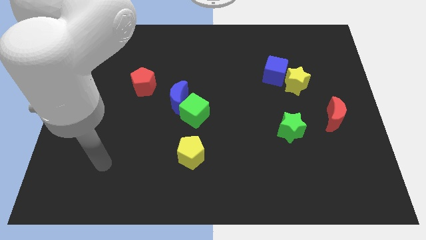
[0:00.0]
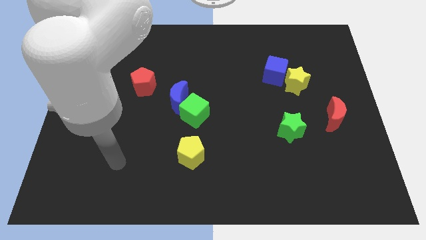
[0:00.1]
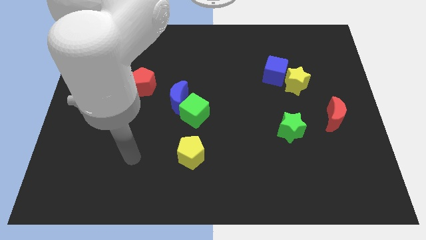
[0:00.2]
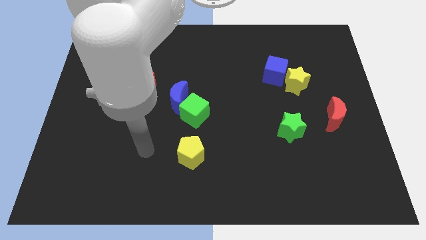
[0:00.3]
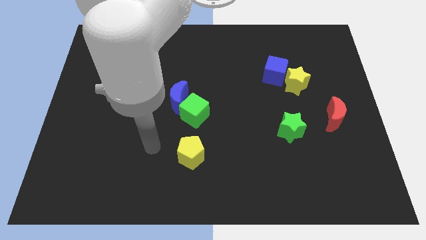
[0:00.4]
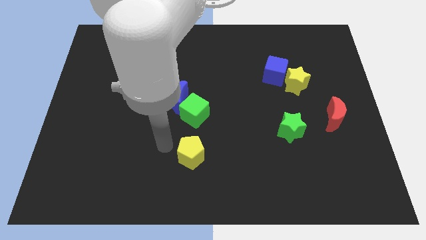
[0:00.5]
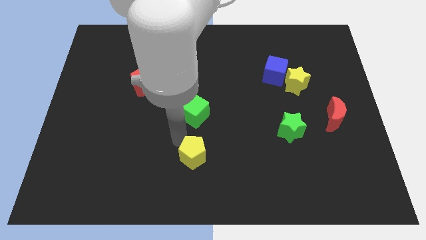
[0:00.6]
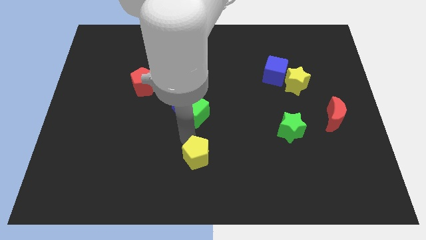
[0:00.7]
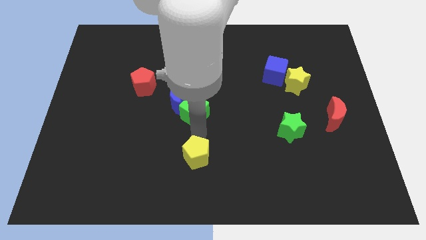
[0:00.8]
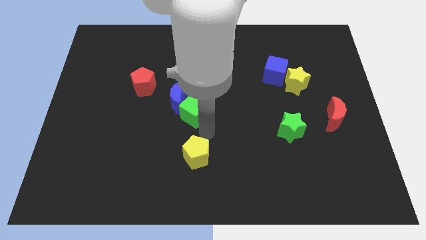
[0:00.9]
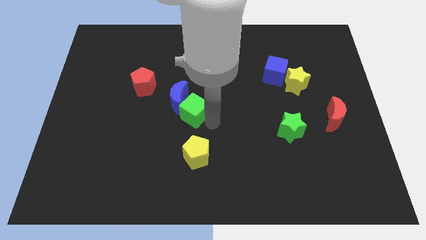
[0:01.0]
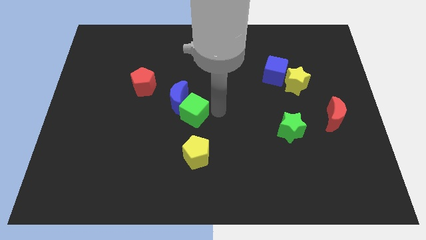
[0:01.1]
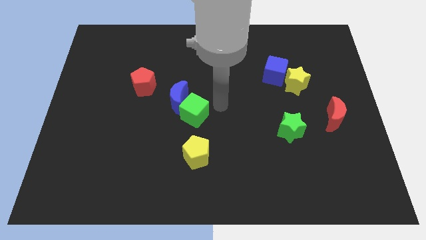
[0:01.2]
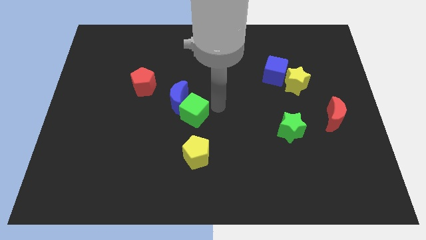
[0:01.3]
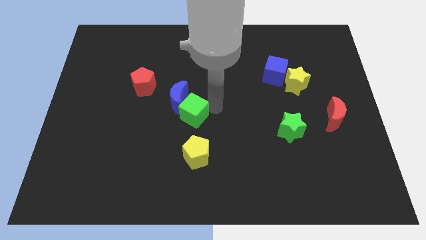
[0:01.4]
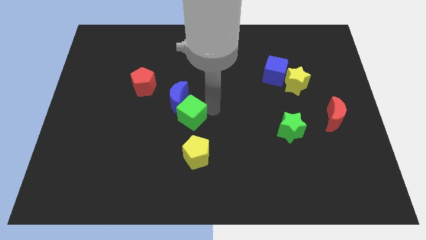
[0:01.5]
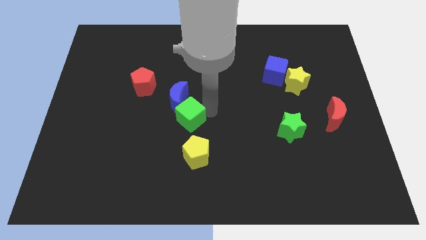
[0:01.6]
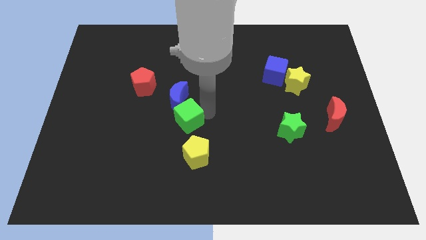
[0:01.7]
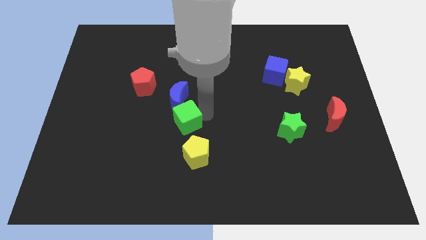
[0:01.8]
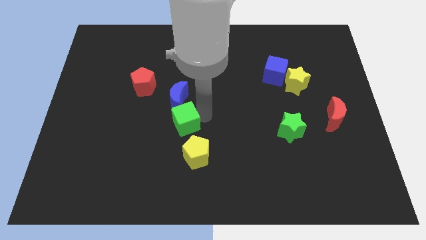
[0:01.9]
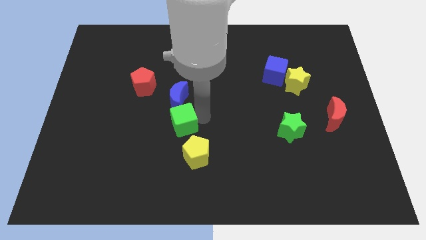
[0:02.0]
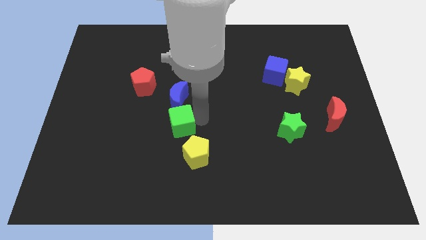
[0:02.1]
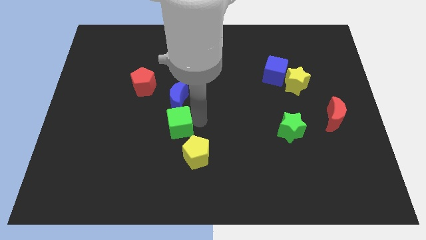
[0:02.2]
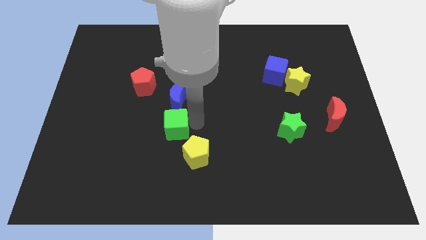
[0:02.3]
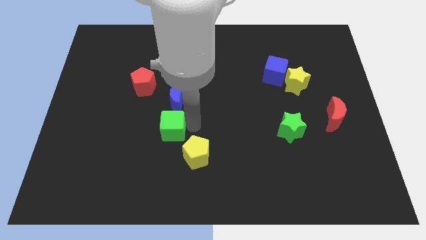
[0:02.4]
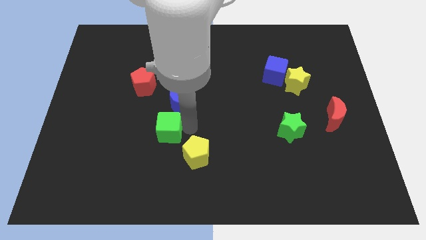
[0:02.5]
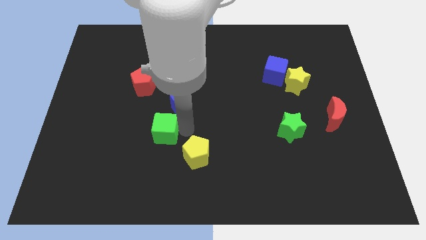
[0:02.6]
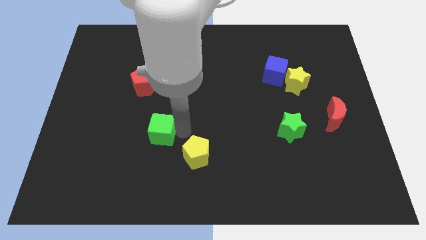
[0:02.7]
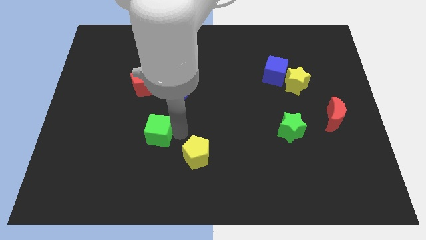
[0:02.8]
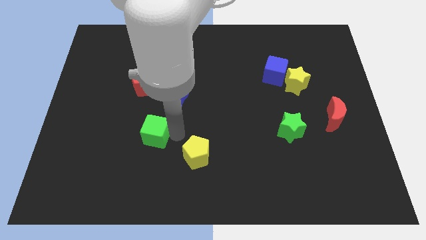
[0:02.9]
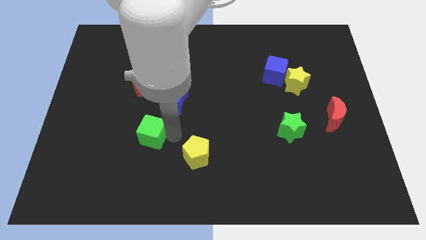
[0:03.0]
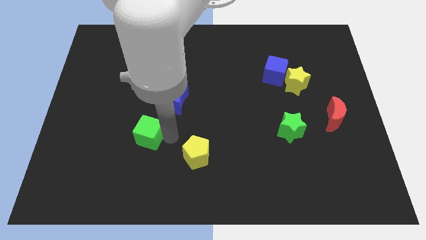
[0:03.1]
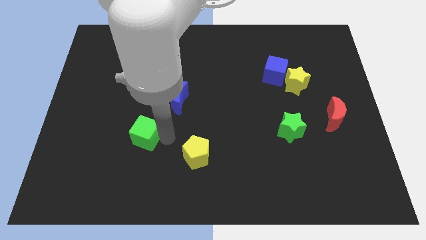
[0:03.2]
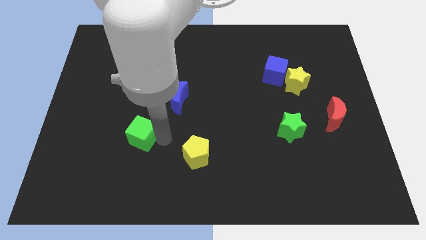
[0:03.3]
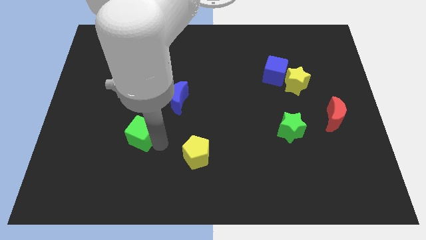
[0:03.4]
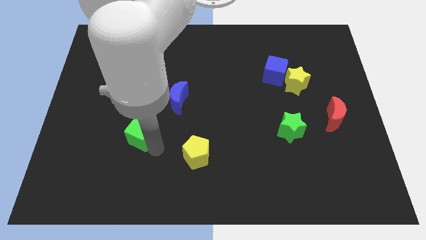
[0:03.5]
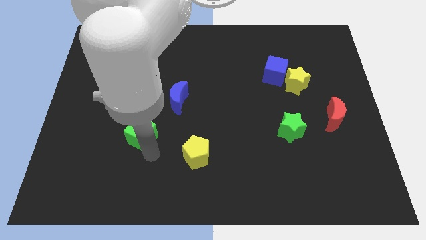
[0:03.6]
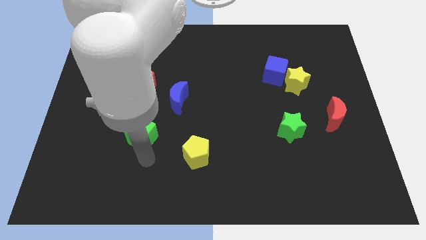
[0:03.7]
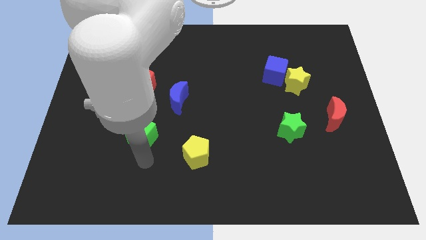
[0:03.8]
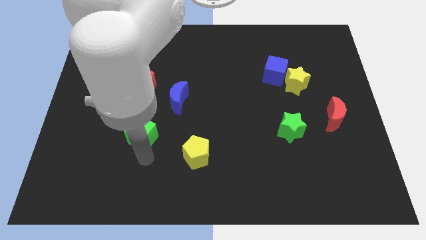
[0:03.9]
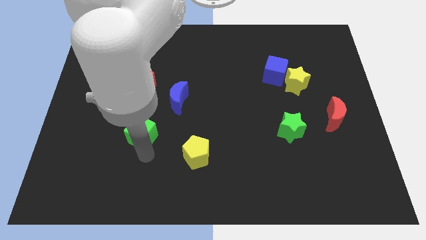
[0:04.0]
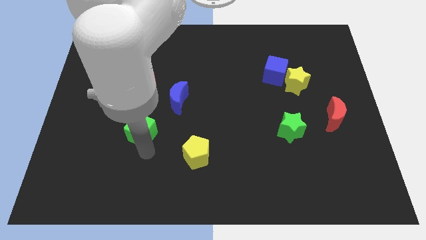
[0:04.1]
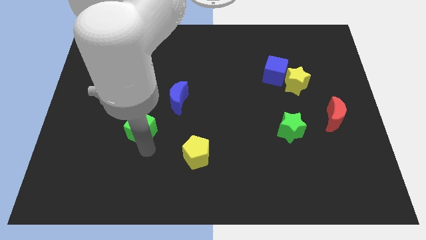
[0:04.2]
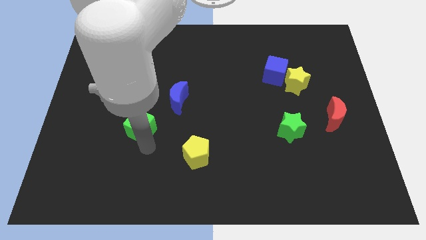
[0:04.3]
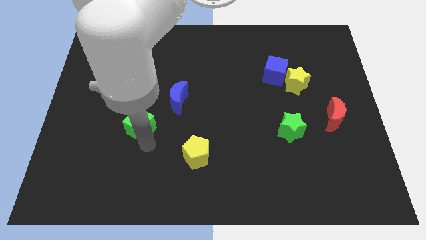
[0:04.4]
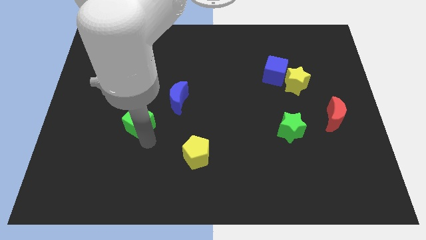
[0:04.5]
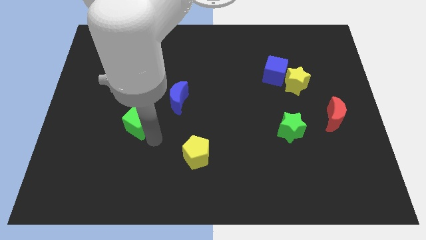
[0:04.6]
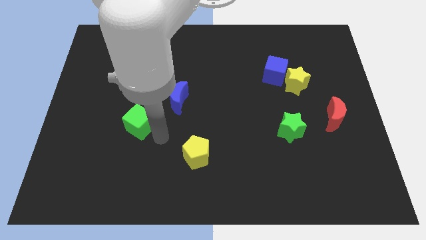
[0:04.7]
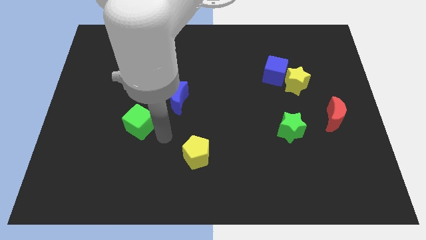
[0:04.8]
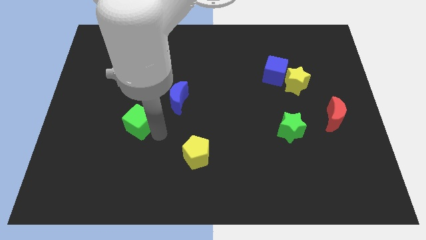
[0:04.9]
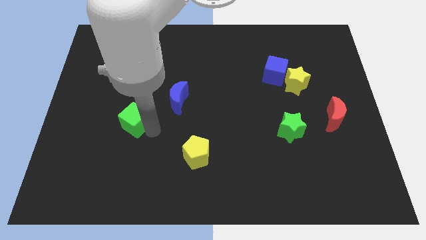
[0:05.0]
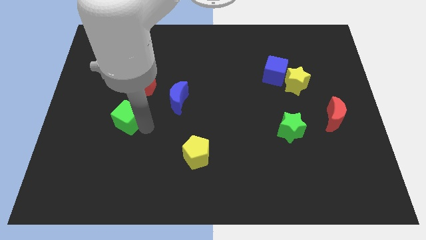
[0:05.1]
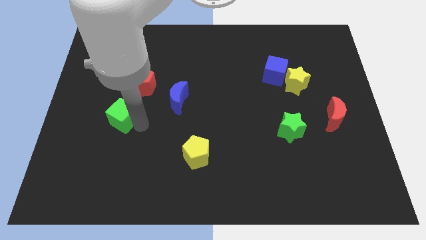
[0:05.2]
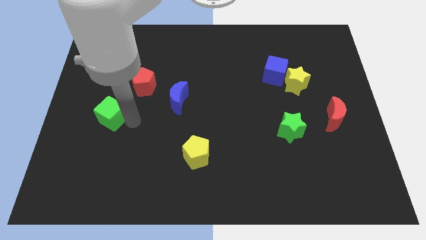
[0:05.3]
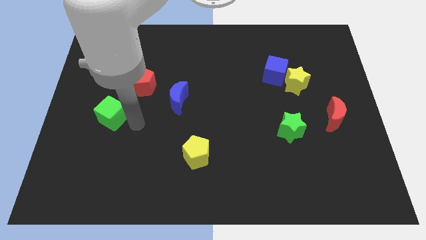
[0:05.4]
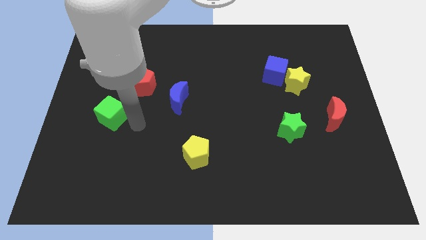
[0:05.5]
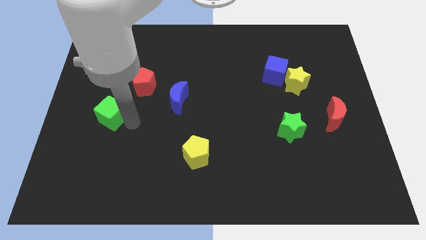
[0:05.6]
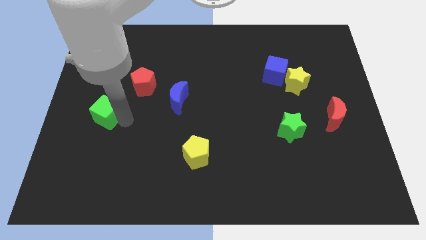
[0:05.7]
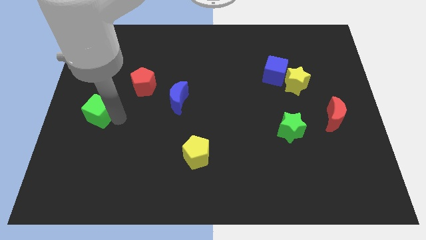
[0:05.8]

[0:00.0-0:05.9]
move the green cube to the center left
